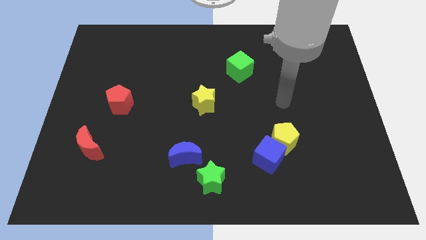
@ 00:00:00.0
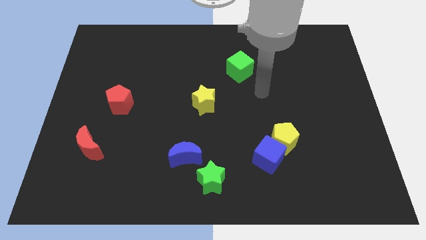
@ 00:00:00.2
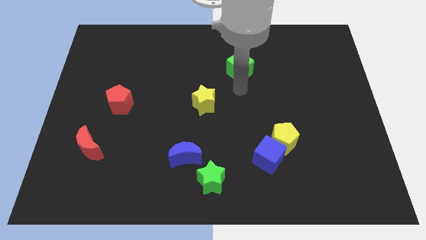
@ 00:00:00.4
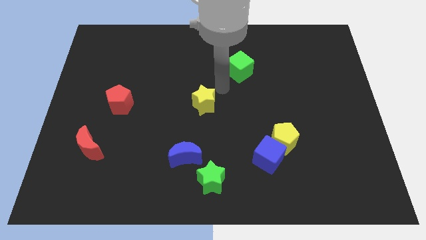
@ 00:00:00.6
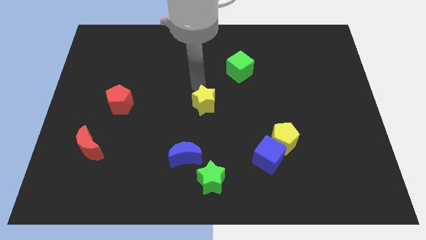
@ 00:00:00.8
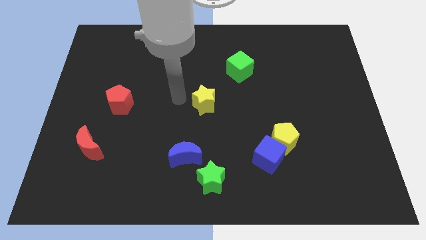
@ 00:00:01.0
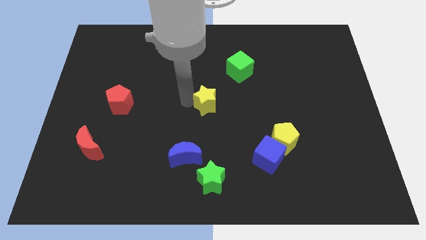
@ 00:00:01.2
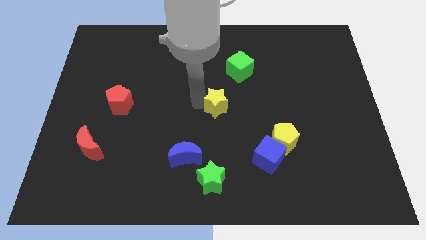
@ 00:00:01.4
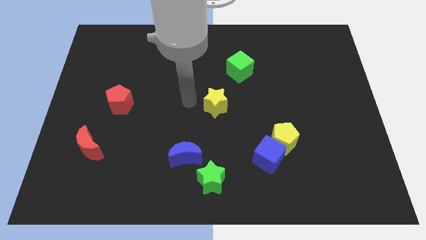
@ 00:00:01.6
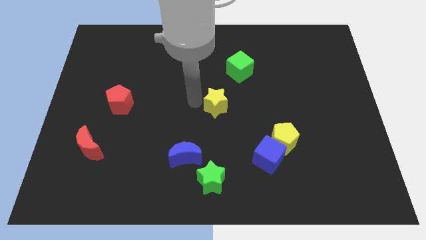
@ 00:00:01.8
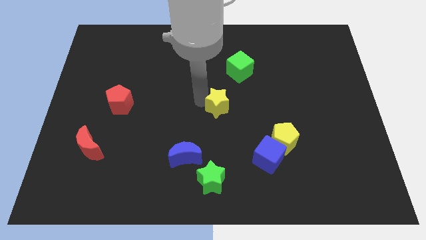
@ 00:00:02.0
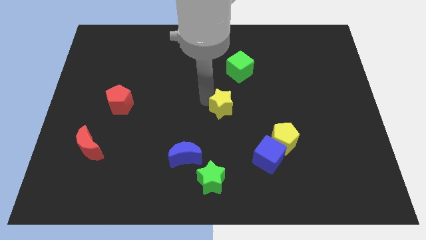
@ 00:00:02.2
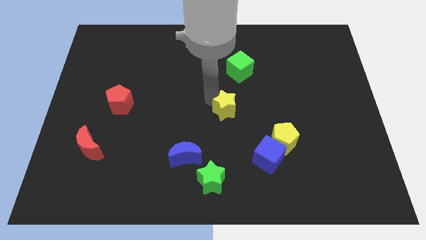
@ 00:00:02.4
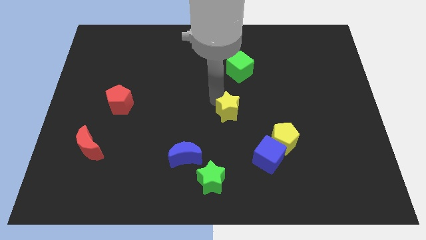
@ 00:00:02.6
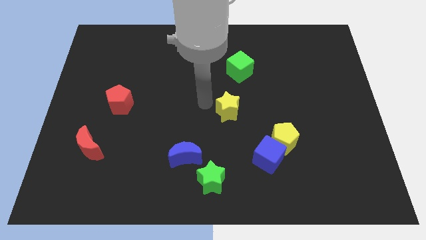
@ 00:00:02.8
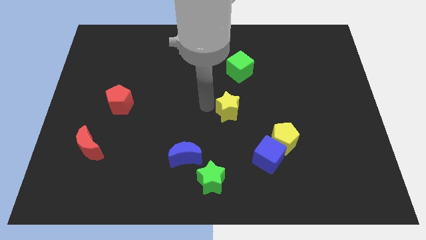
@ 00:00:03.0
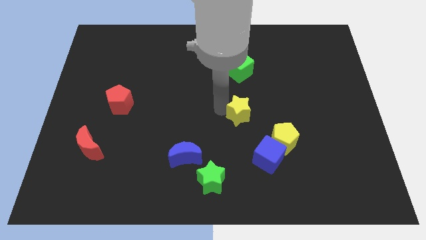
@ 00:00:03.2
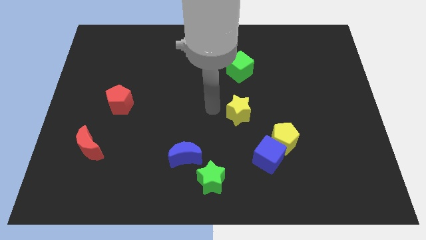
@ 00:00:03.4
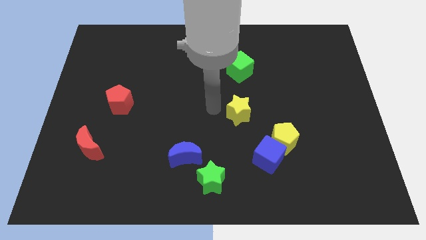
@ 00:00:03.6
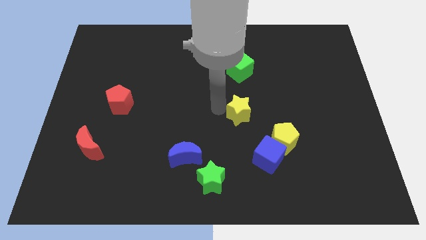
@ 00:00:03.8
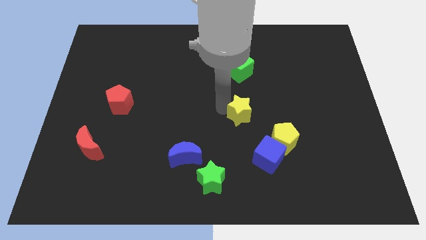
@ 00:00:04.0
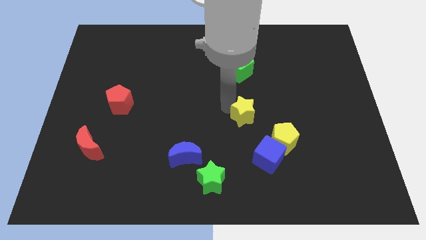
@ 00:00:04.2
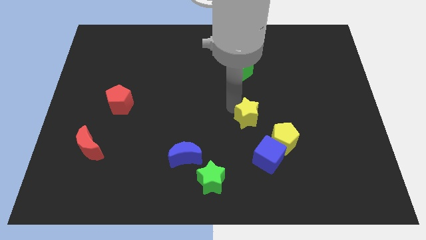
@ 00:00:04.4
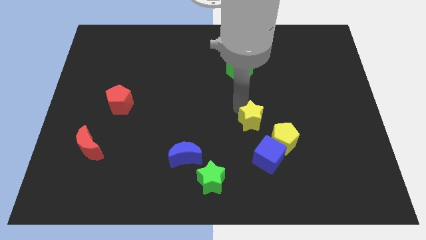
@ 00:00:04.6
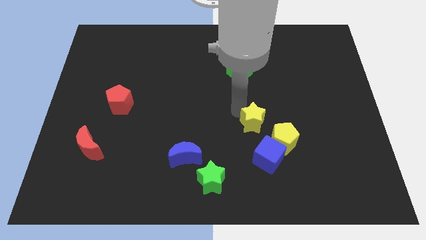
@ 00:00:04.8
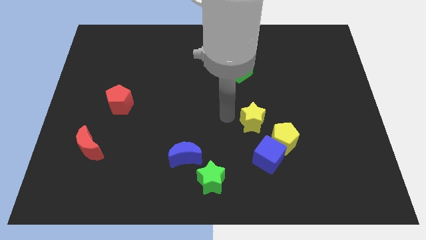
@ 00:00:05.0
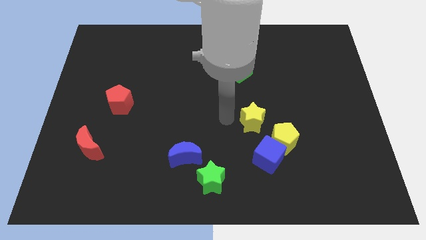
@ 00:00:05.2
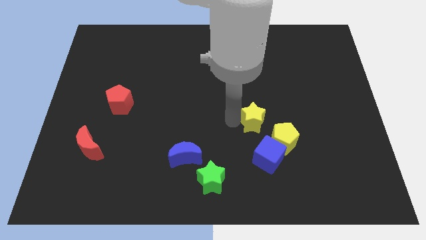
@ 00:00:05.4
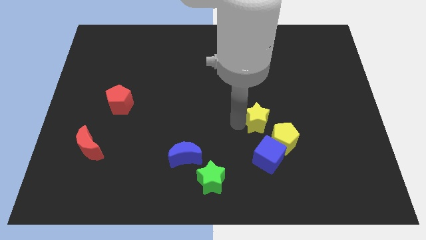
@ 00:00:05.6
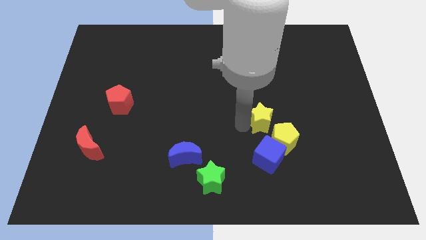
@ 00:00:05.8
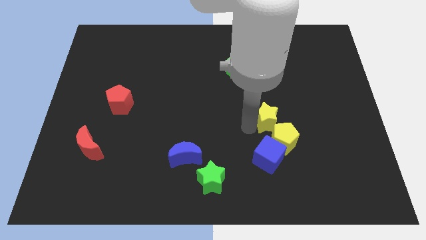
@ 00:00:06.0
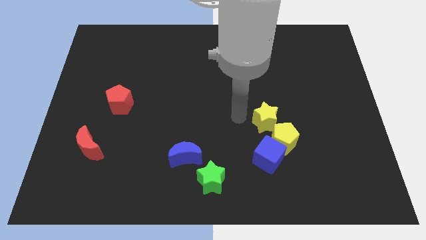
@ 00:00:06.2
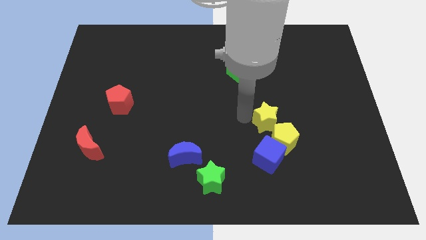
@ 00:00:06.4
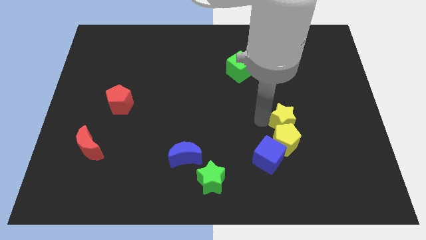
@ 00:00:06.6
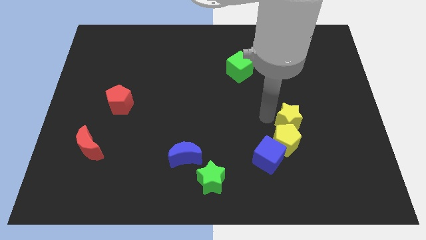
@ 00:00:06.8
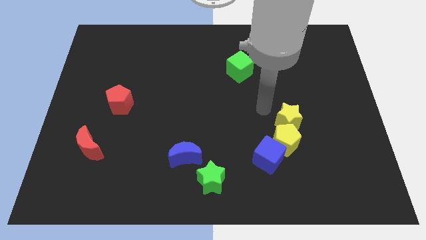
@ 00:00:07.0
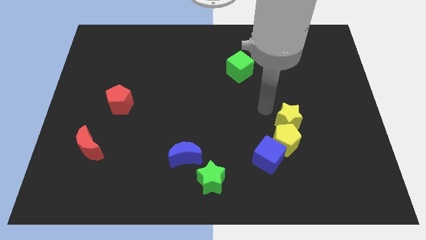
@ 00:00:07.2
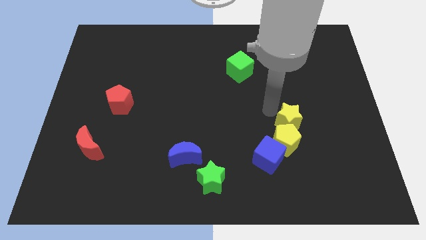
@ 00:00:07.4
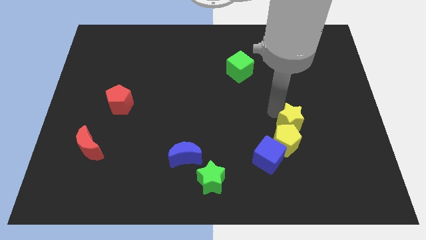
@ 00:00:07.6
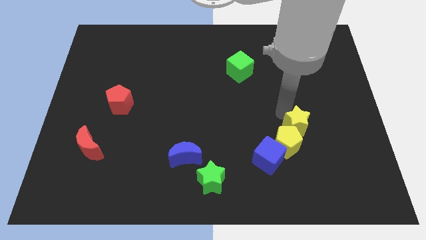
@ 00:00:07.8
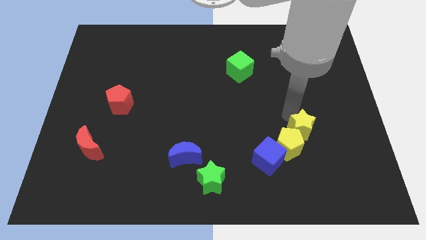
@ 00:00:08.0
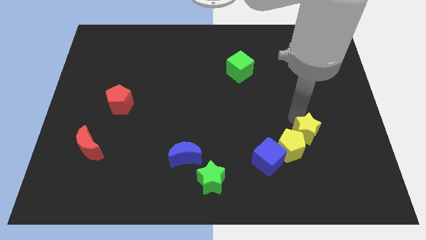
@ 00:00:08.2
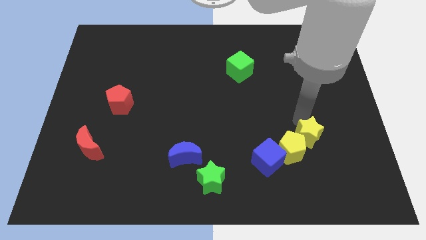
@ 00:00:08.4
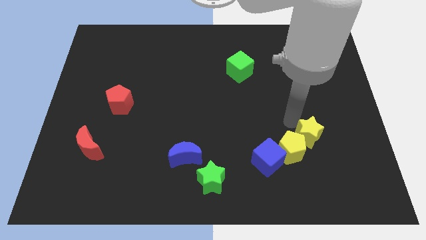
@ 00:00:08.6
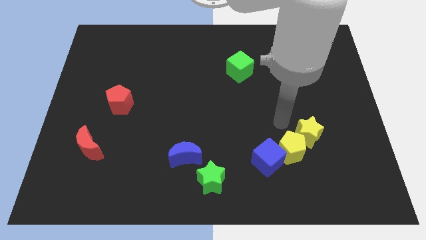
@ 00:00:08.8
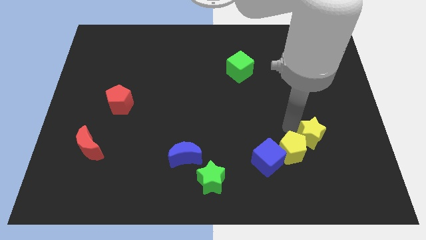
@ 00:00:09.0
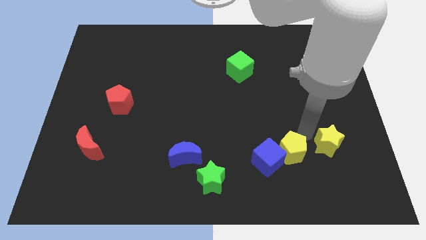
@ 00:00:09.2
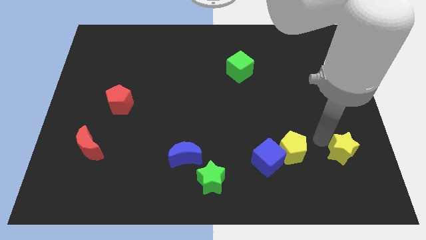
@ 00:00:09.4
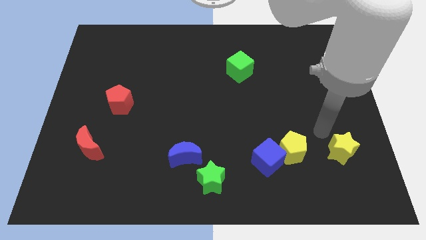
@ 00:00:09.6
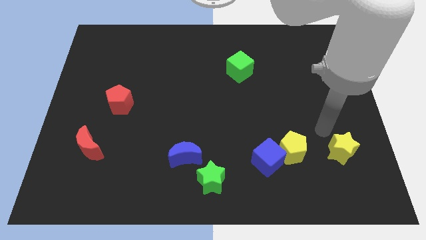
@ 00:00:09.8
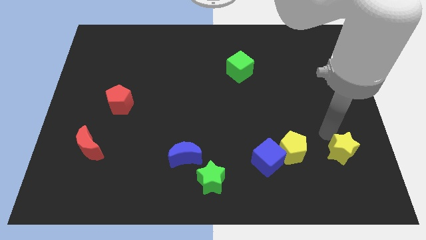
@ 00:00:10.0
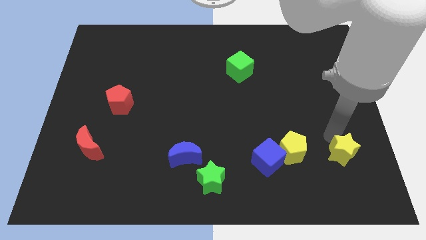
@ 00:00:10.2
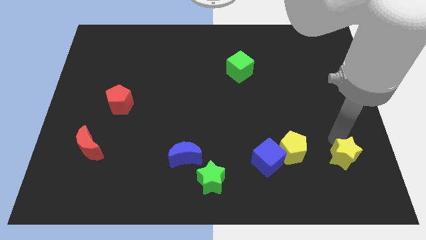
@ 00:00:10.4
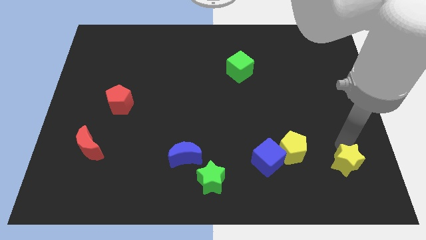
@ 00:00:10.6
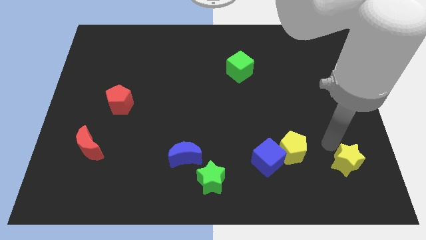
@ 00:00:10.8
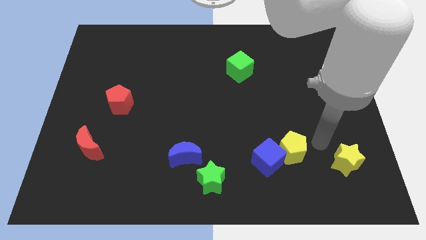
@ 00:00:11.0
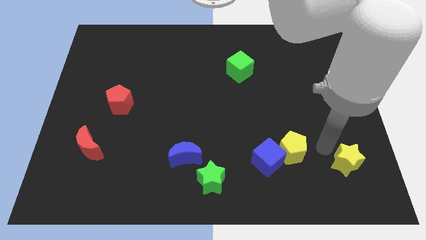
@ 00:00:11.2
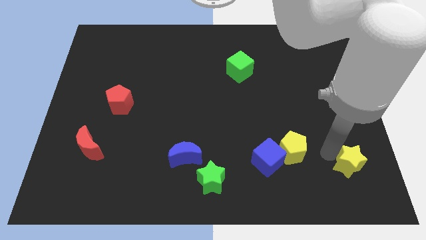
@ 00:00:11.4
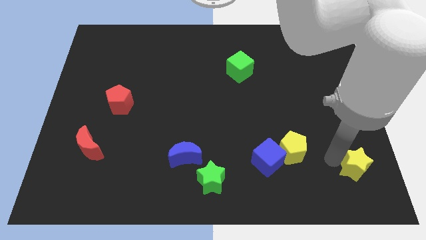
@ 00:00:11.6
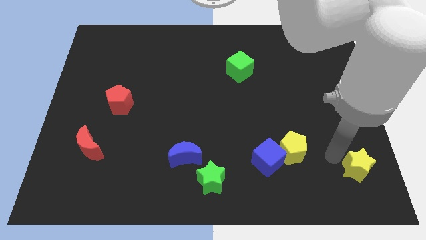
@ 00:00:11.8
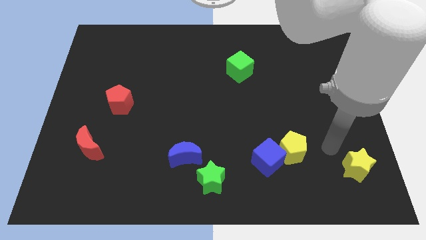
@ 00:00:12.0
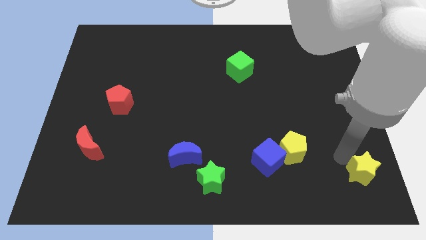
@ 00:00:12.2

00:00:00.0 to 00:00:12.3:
slide the yellow star to the lower right corner

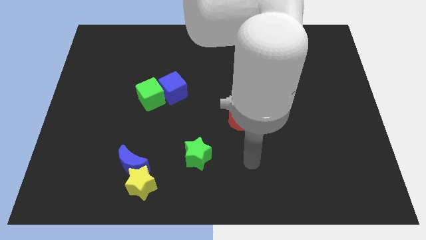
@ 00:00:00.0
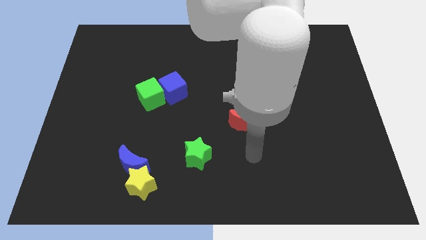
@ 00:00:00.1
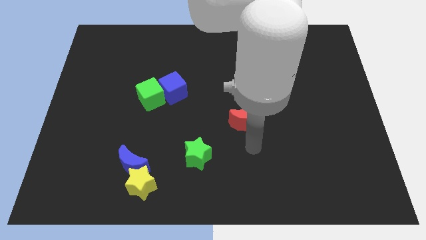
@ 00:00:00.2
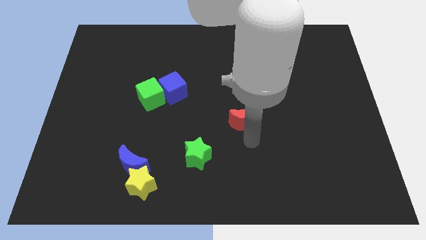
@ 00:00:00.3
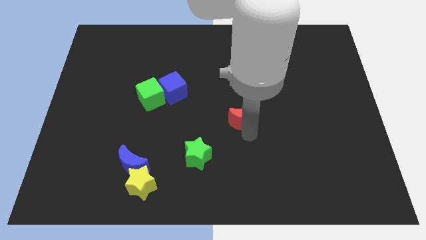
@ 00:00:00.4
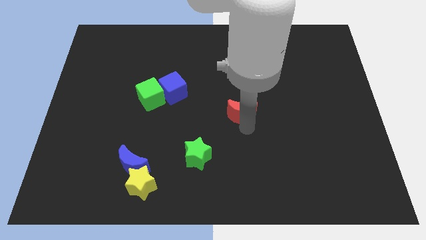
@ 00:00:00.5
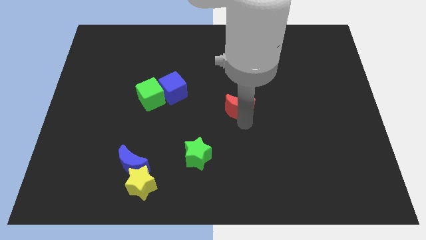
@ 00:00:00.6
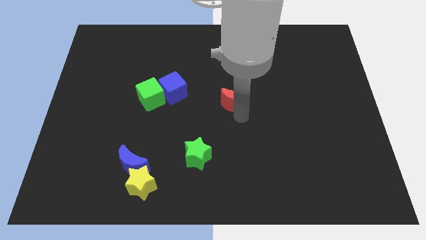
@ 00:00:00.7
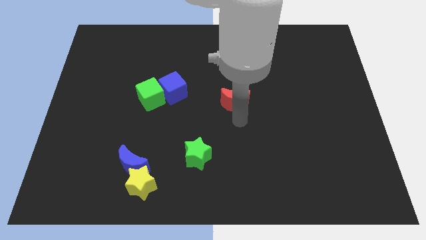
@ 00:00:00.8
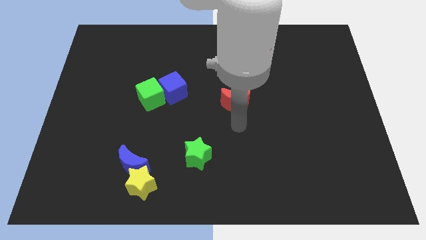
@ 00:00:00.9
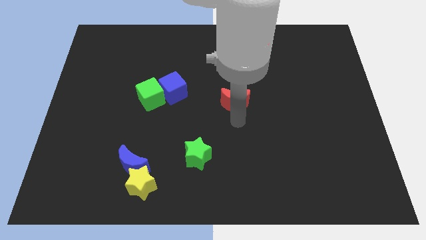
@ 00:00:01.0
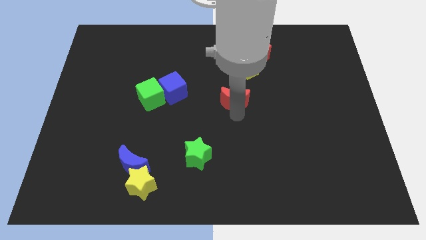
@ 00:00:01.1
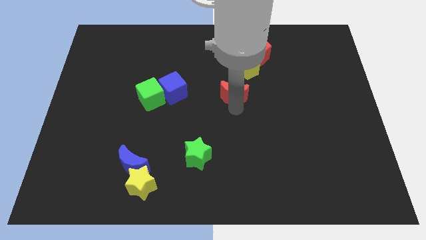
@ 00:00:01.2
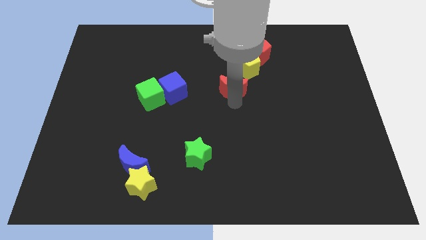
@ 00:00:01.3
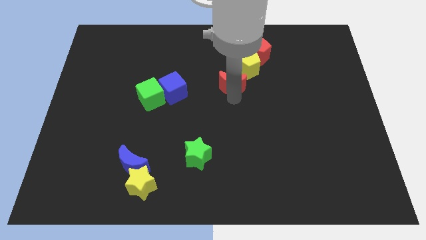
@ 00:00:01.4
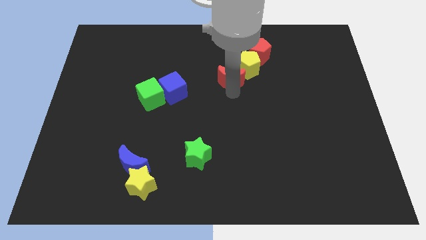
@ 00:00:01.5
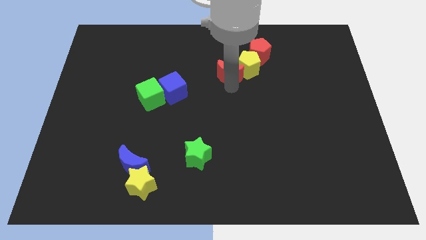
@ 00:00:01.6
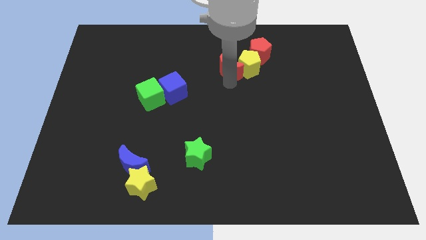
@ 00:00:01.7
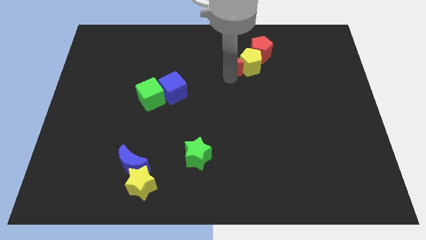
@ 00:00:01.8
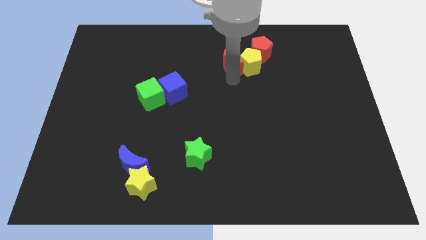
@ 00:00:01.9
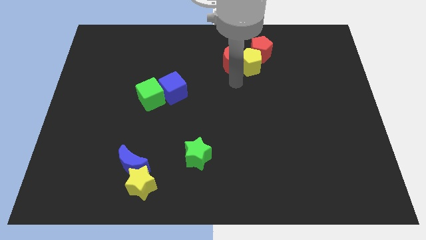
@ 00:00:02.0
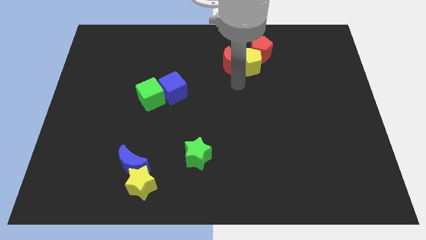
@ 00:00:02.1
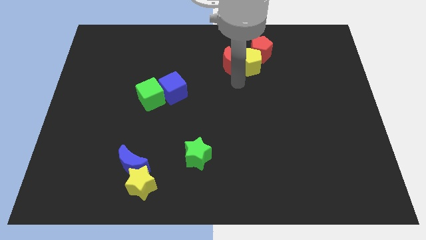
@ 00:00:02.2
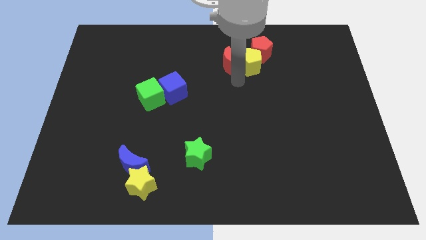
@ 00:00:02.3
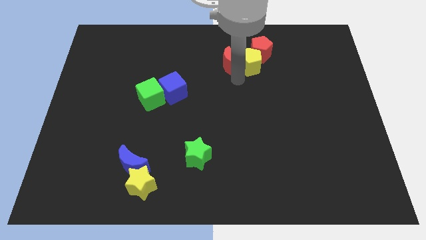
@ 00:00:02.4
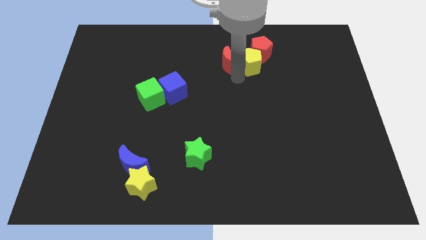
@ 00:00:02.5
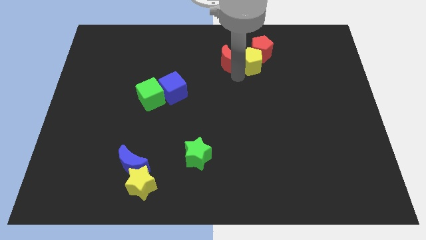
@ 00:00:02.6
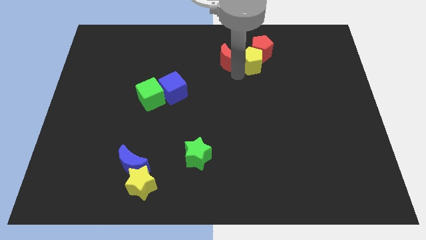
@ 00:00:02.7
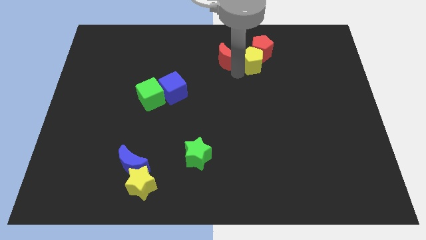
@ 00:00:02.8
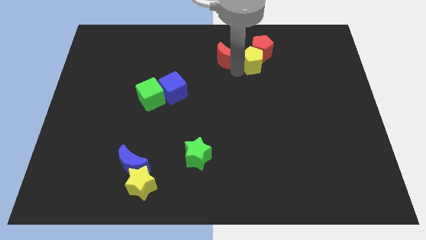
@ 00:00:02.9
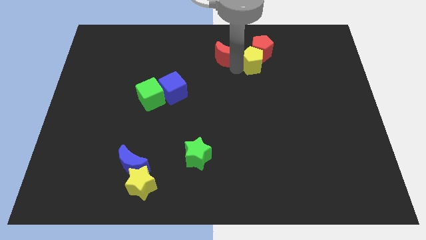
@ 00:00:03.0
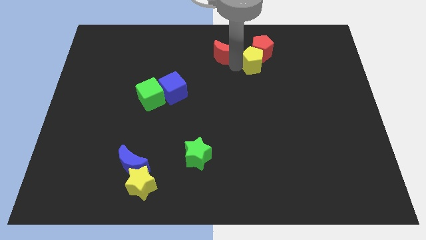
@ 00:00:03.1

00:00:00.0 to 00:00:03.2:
put the red moon to the top
